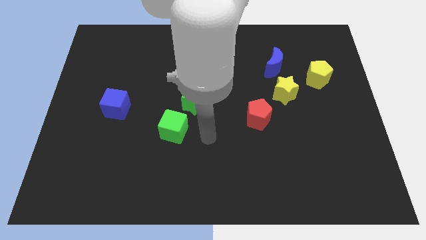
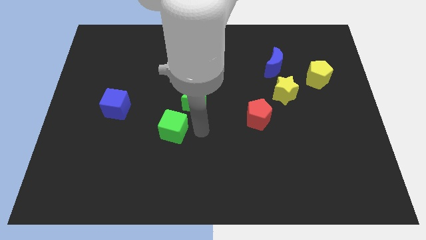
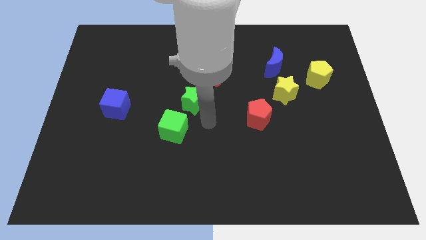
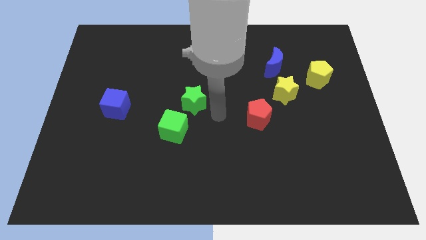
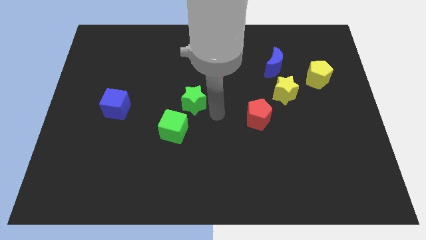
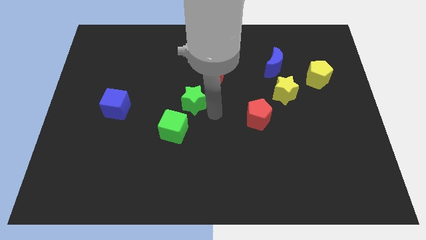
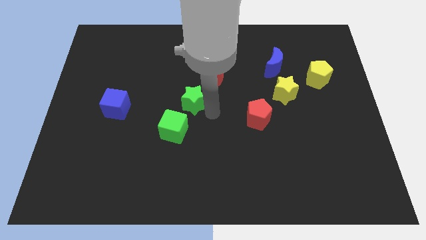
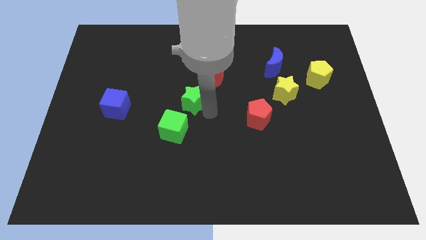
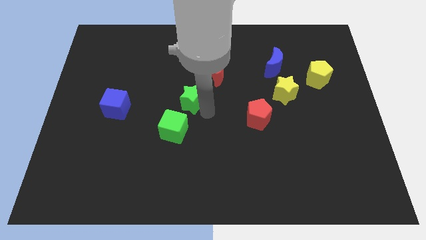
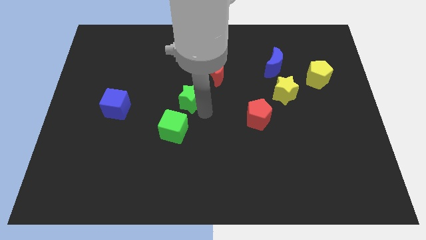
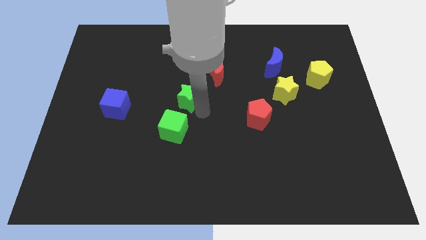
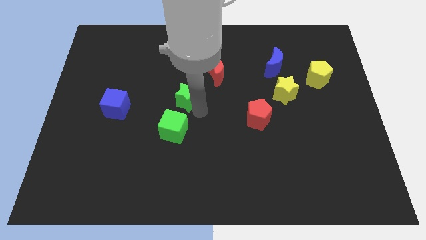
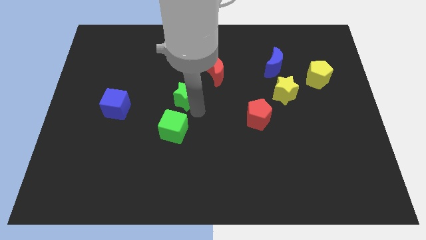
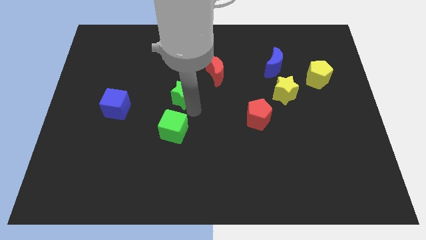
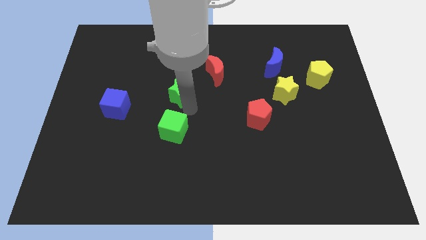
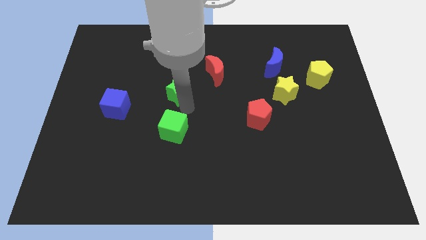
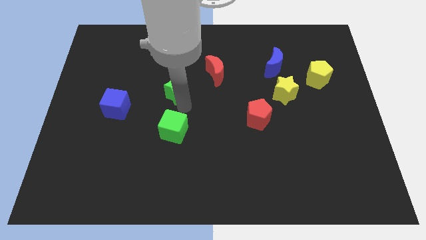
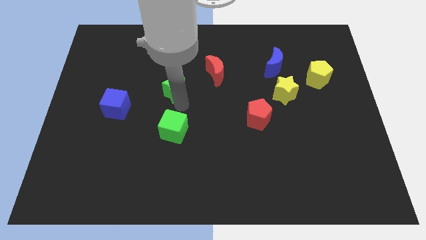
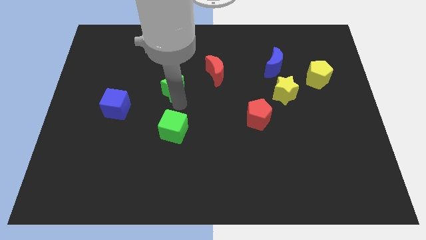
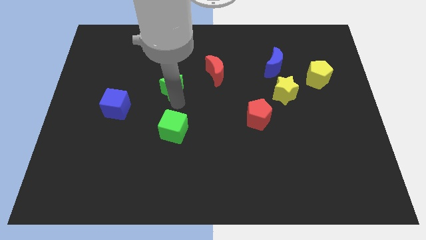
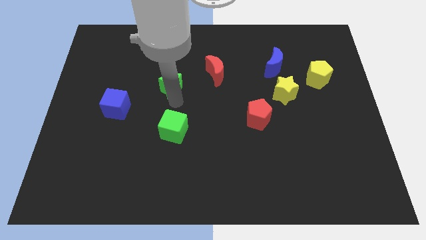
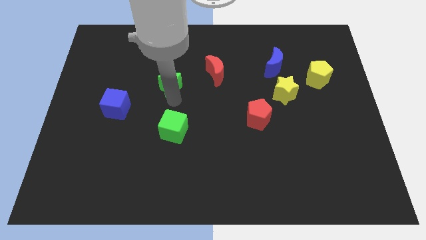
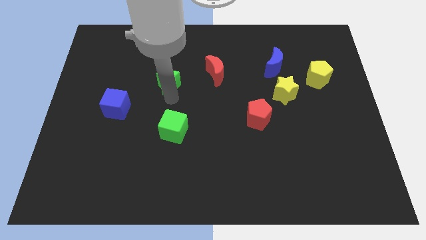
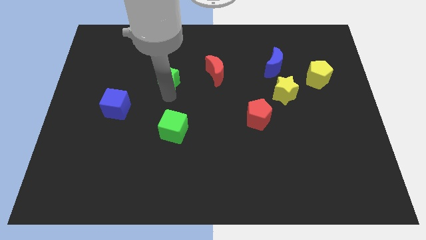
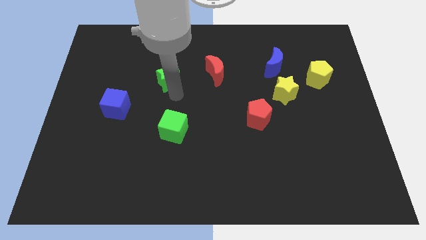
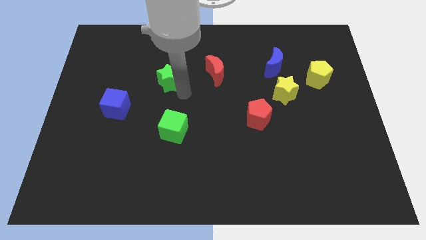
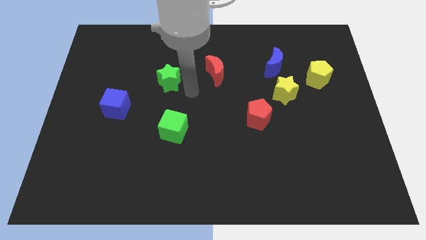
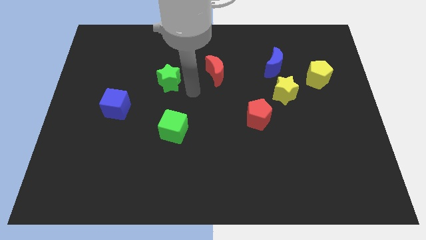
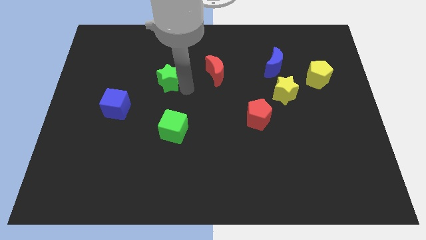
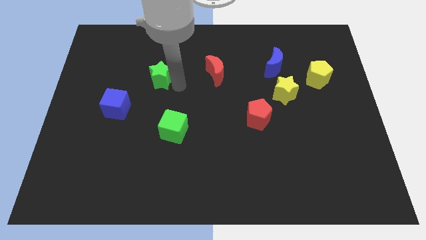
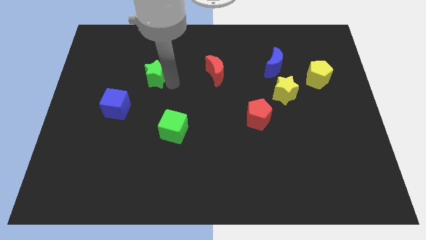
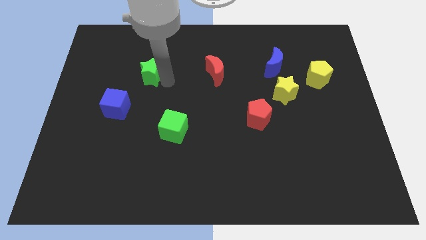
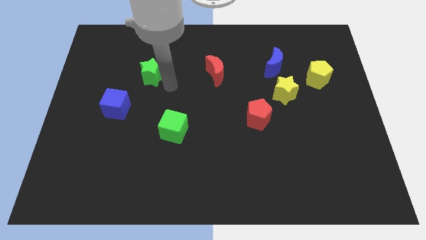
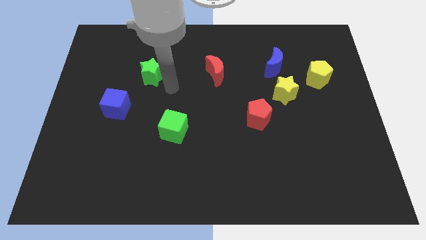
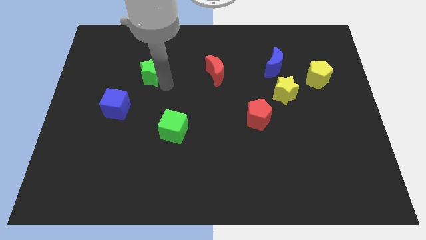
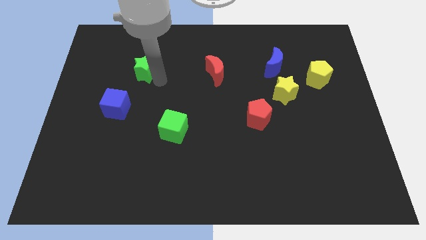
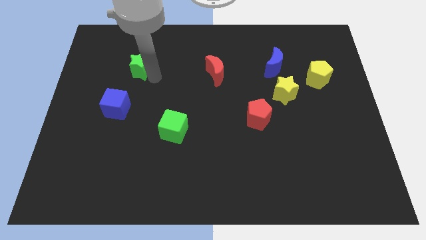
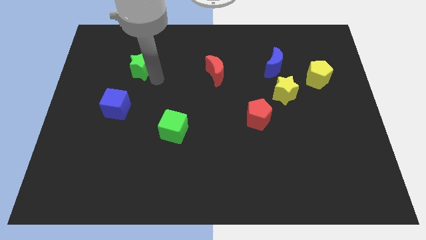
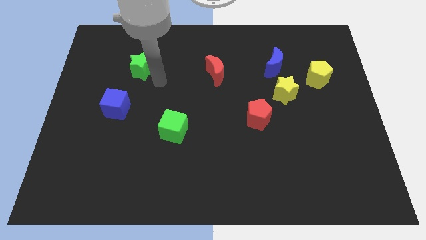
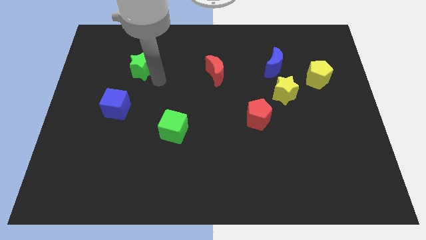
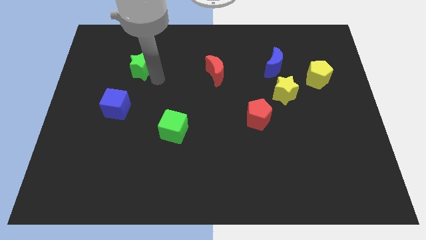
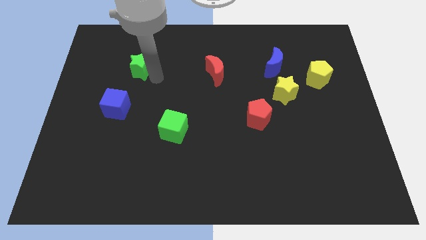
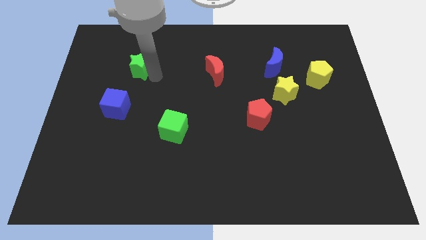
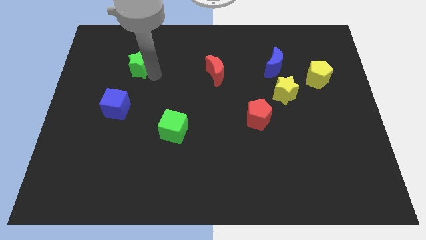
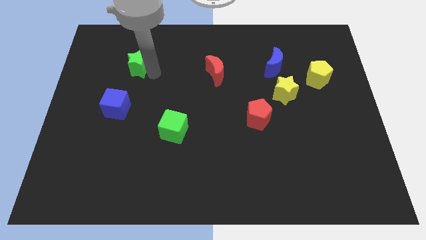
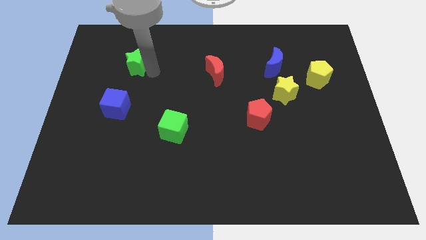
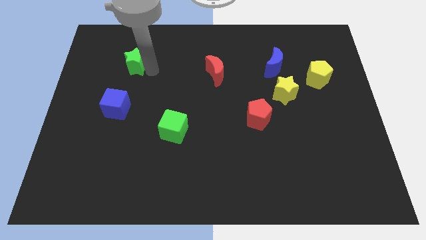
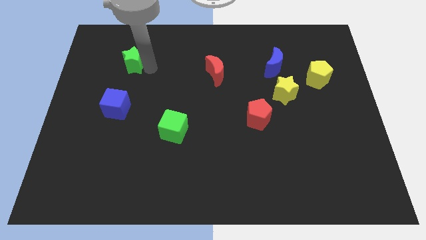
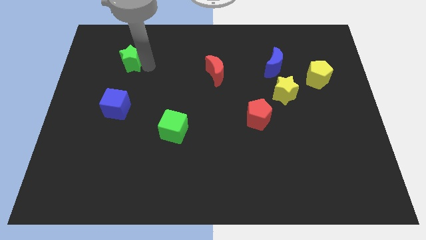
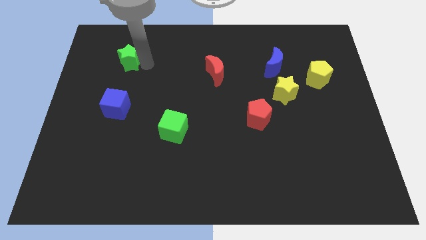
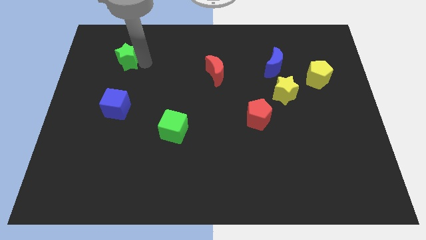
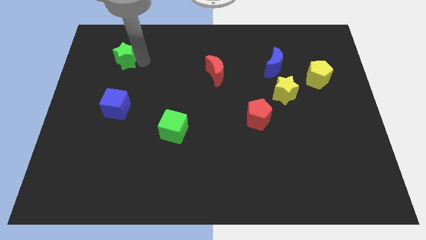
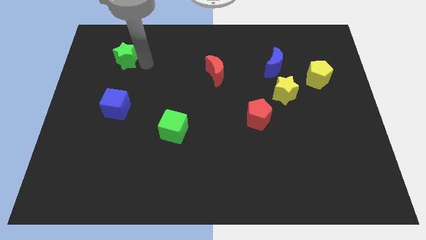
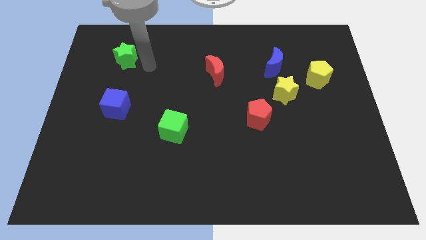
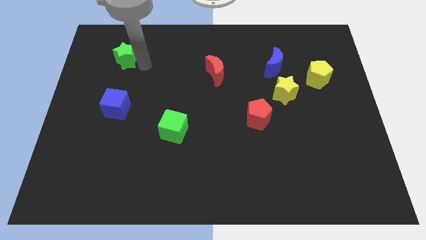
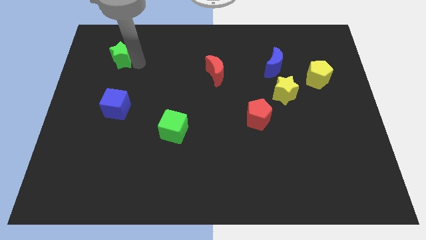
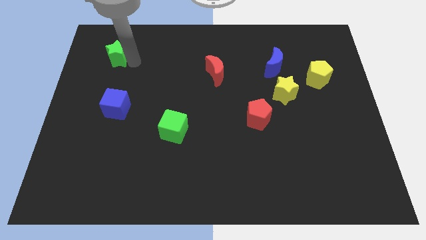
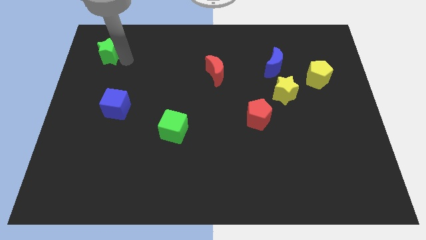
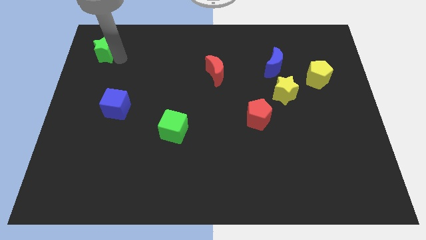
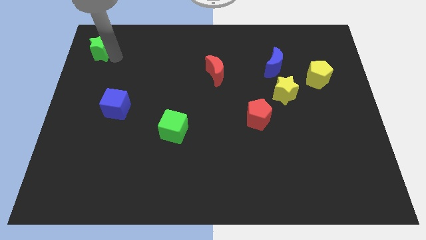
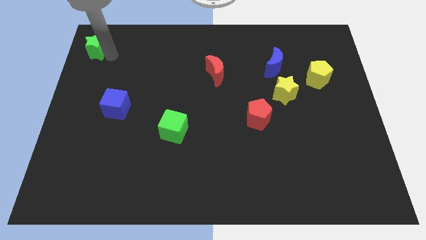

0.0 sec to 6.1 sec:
slide the green star to the top left of the board

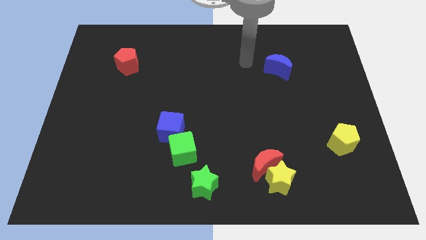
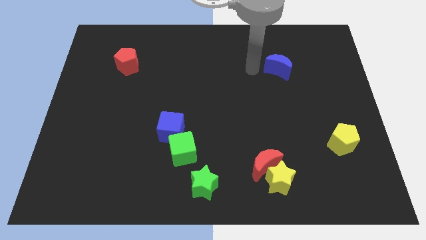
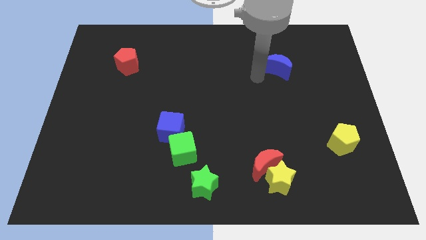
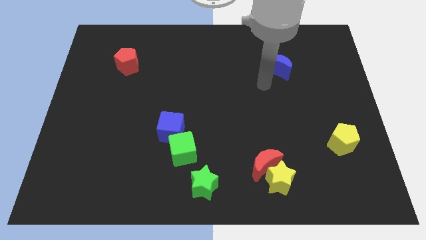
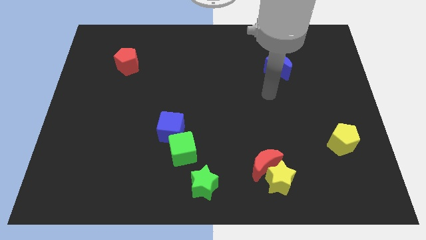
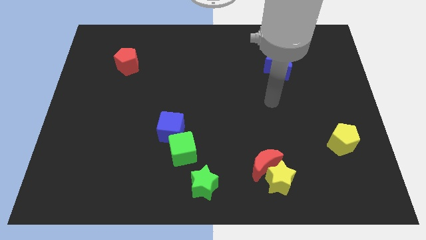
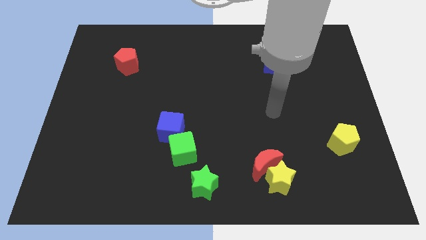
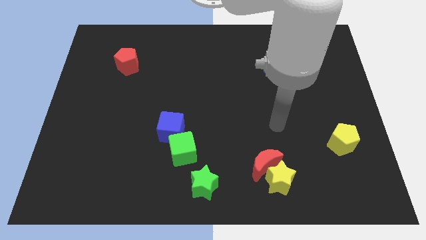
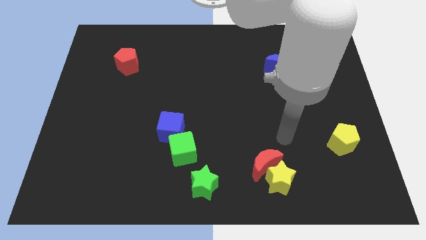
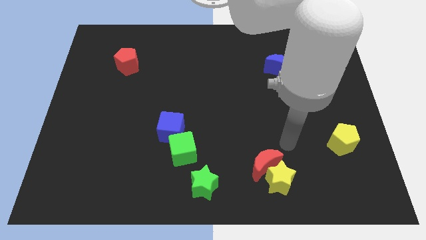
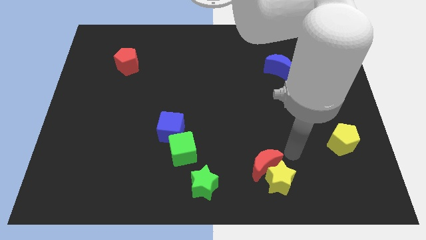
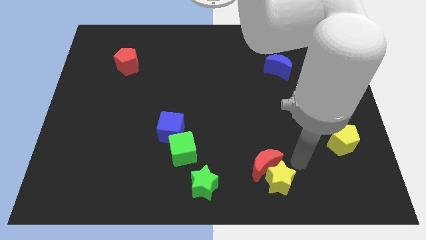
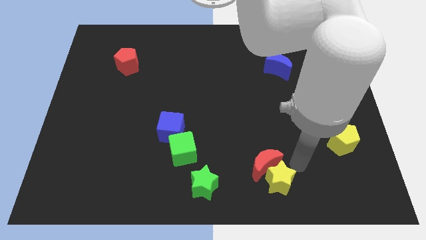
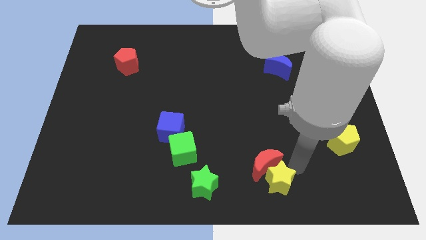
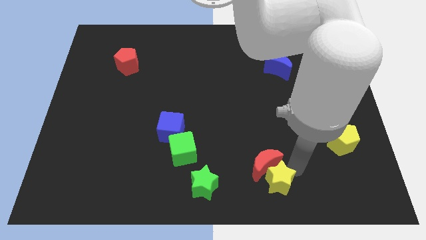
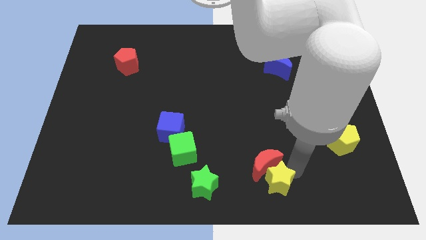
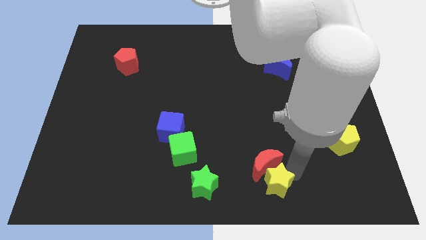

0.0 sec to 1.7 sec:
push the yellow star to the bottom side

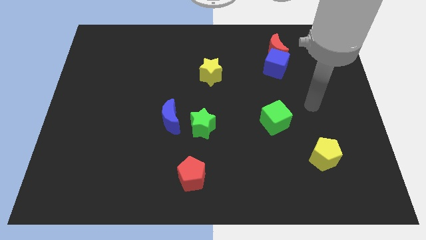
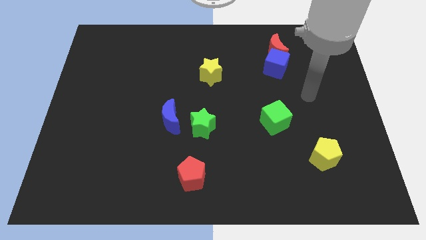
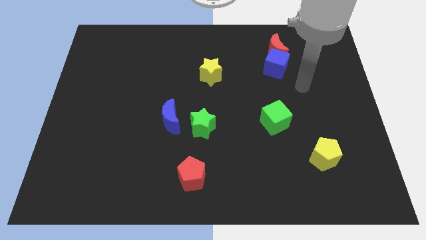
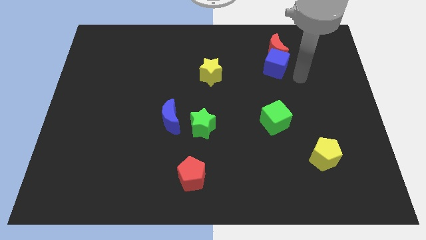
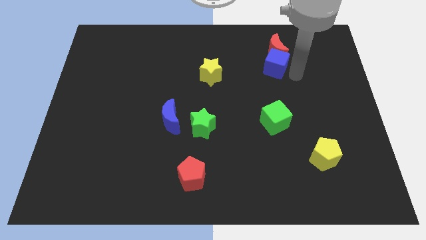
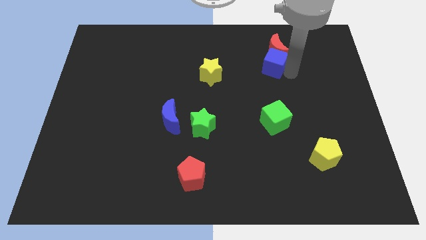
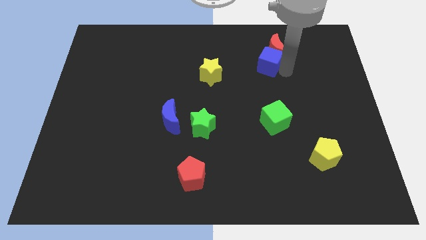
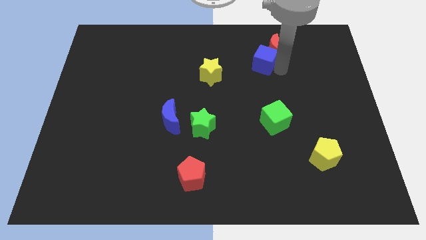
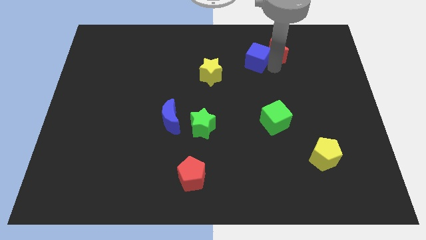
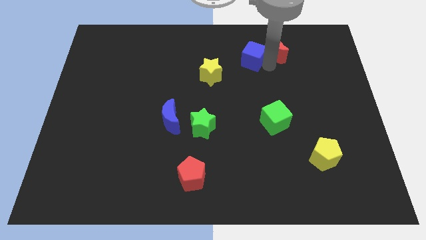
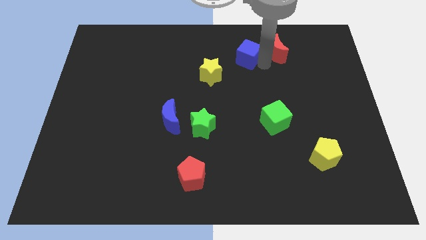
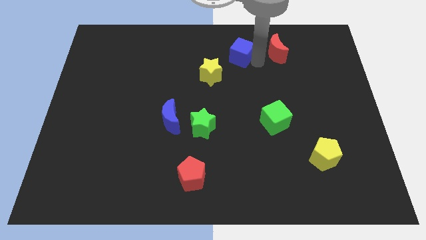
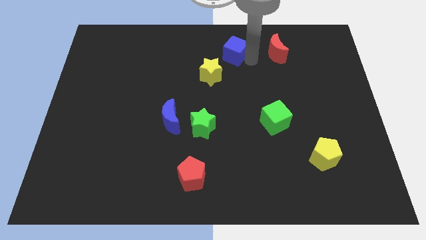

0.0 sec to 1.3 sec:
put the blue cube to the top
